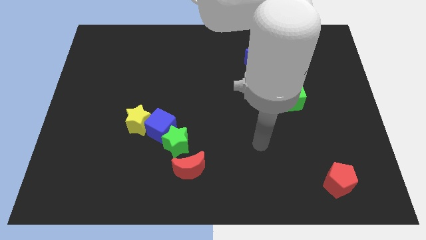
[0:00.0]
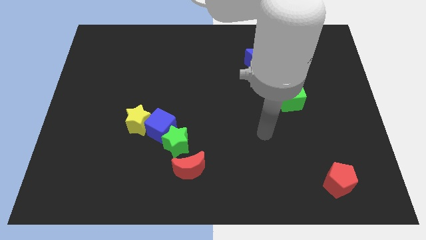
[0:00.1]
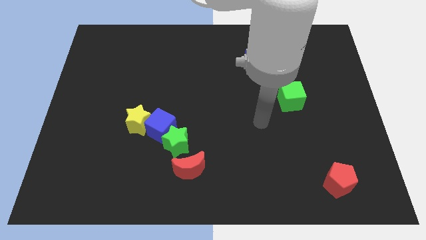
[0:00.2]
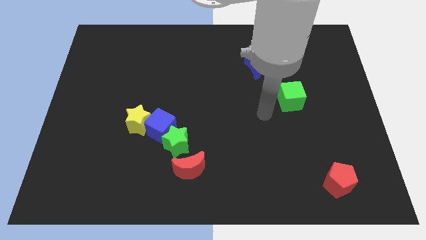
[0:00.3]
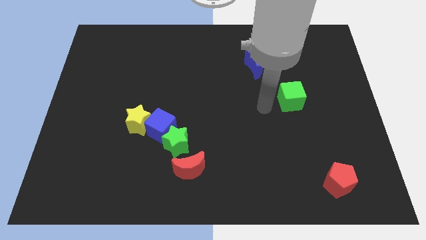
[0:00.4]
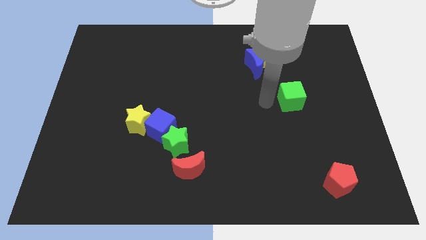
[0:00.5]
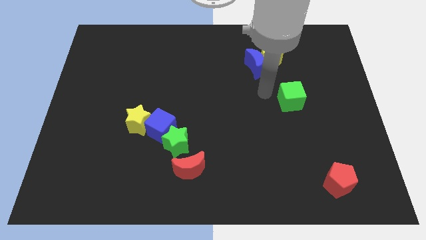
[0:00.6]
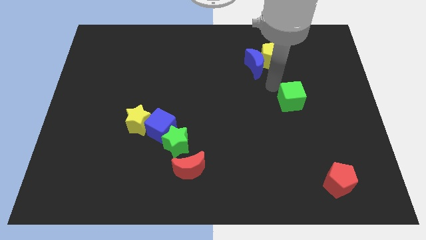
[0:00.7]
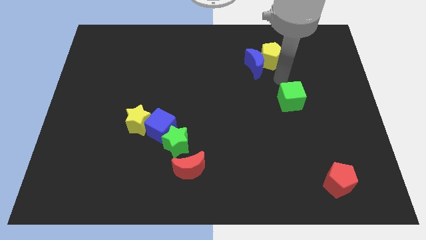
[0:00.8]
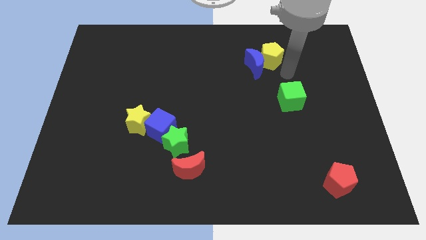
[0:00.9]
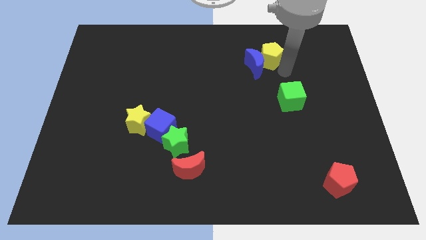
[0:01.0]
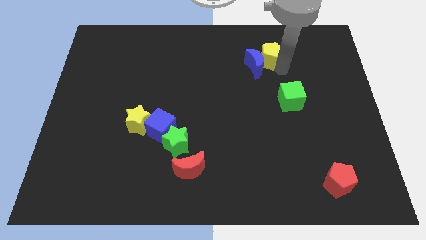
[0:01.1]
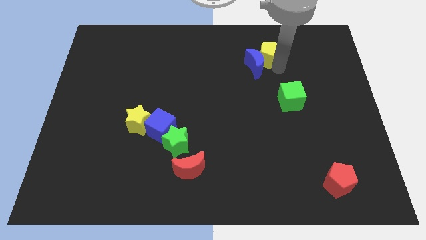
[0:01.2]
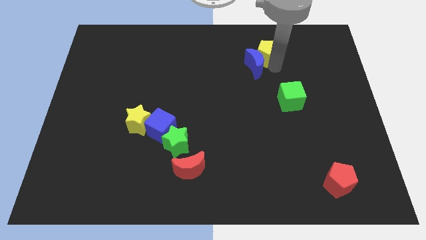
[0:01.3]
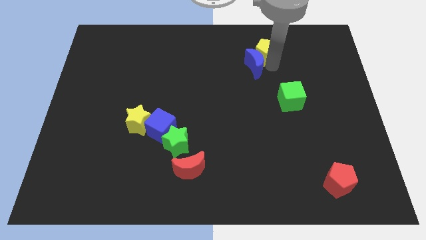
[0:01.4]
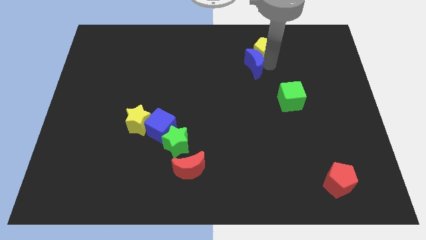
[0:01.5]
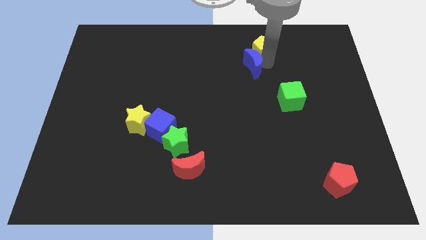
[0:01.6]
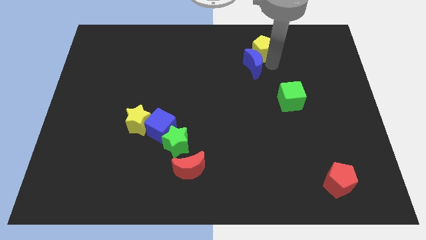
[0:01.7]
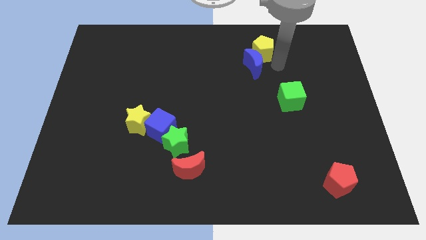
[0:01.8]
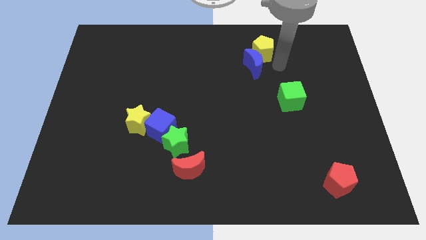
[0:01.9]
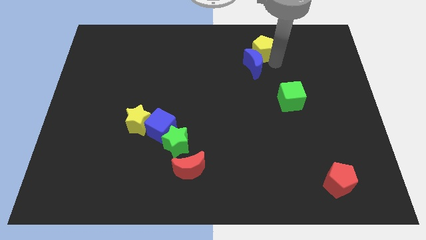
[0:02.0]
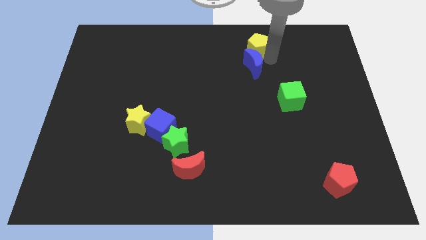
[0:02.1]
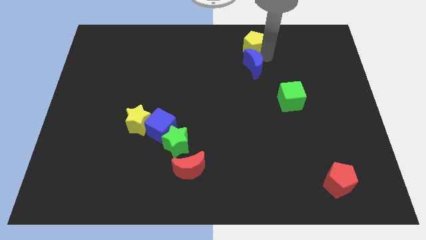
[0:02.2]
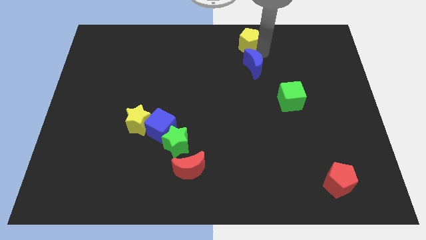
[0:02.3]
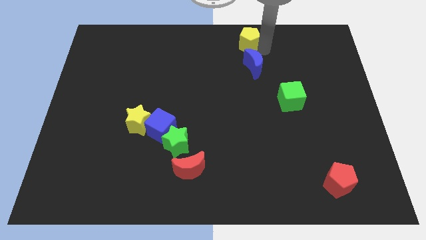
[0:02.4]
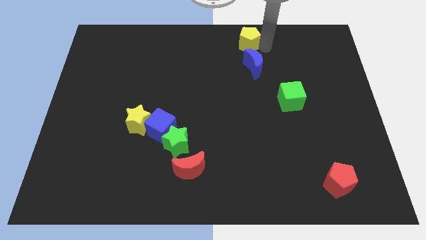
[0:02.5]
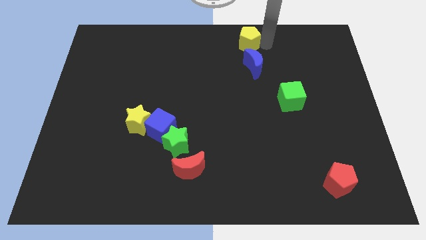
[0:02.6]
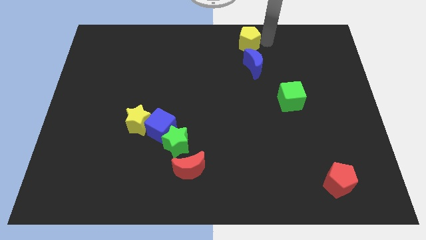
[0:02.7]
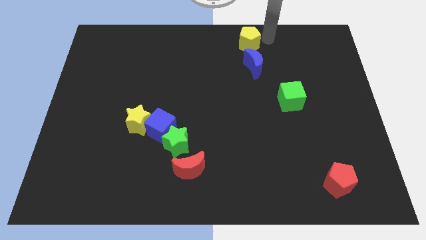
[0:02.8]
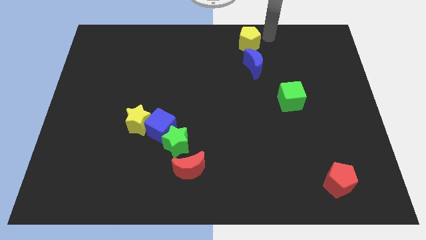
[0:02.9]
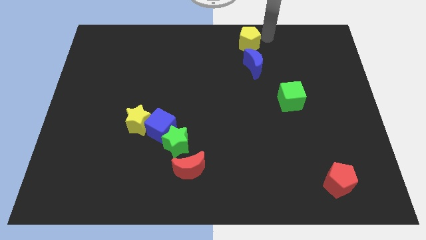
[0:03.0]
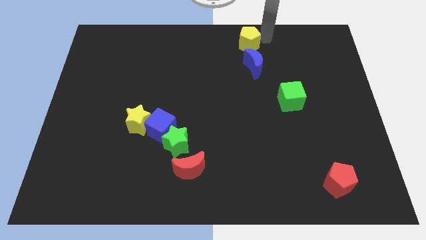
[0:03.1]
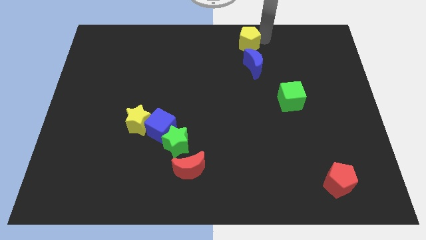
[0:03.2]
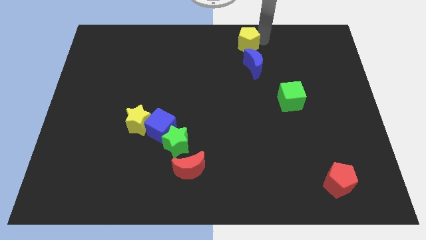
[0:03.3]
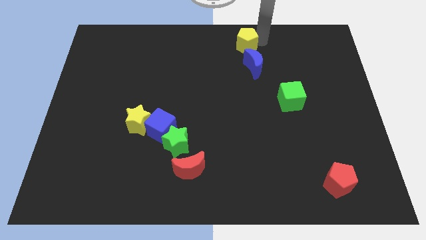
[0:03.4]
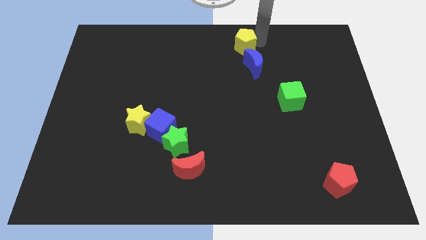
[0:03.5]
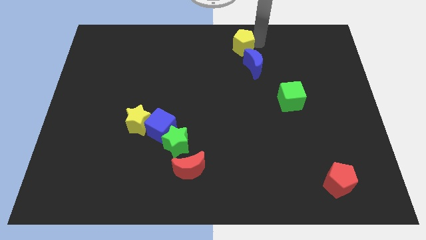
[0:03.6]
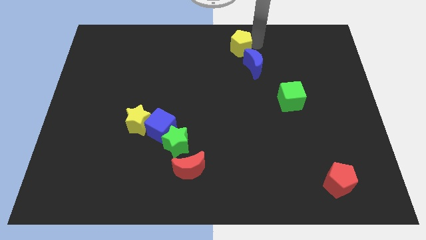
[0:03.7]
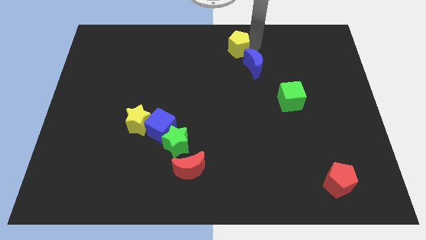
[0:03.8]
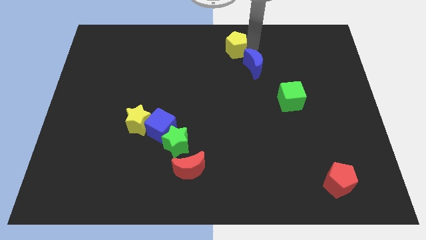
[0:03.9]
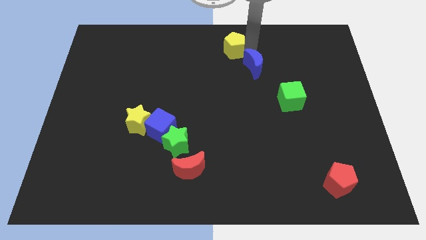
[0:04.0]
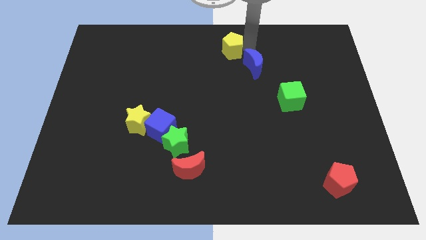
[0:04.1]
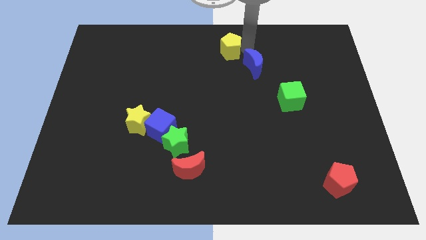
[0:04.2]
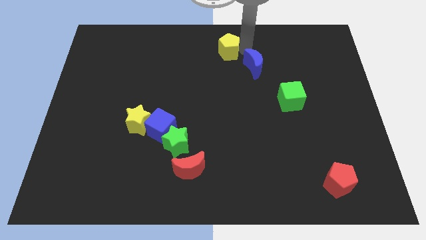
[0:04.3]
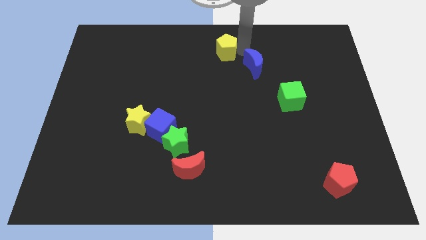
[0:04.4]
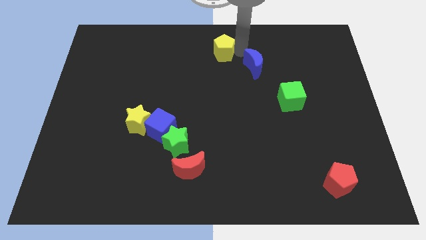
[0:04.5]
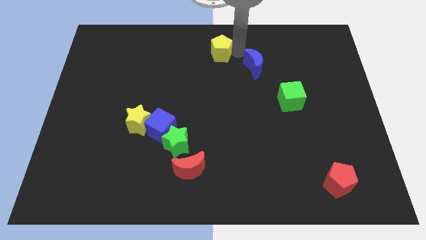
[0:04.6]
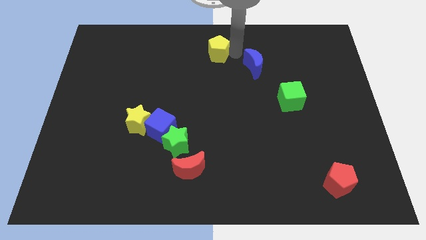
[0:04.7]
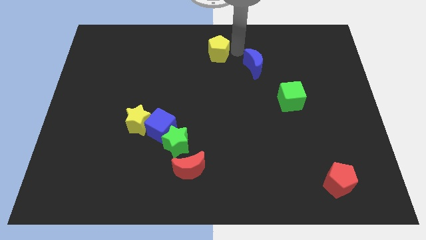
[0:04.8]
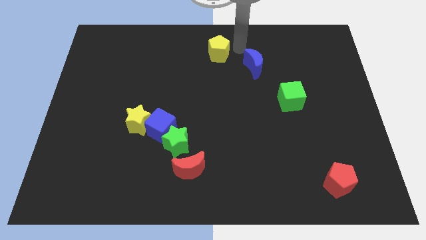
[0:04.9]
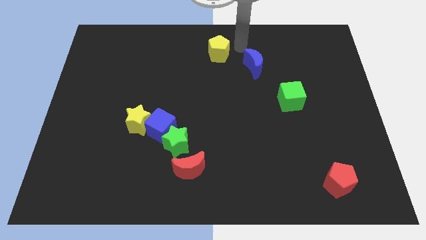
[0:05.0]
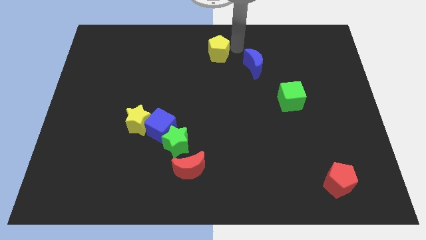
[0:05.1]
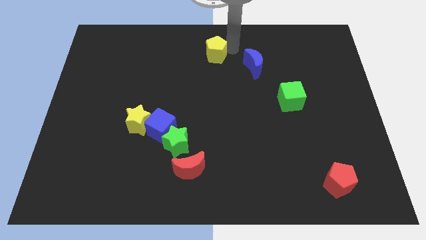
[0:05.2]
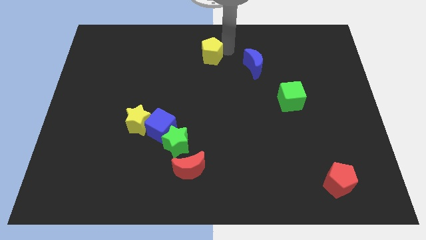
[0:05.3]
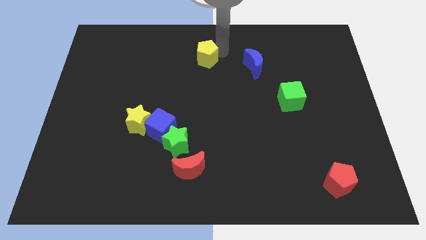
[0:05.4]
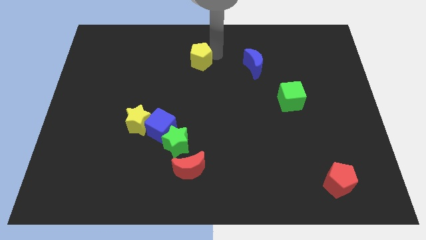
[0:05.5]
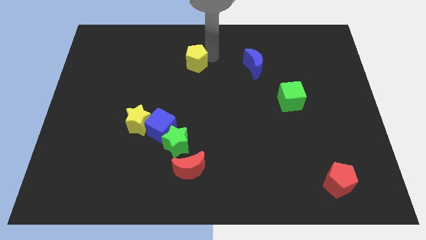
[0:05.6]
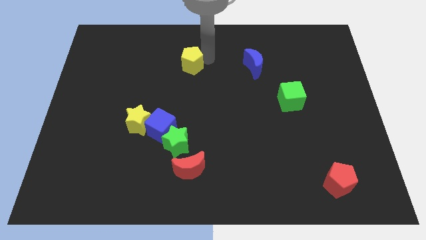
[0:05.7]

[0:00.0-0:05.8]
push the yellow pentagon to the left

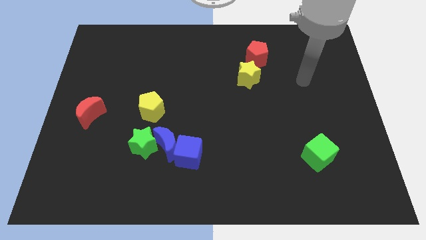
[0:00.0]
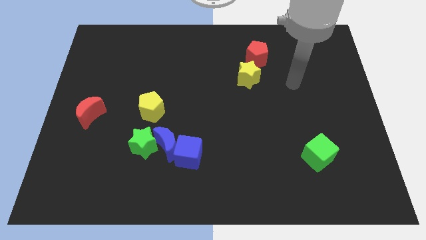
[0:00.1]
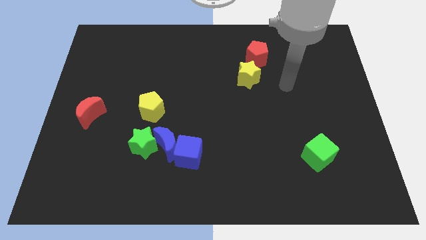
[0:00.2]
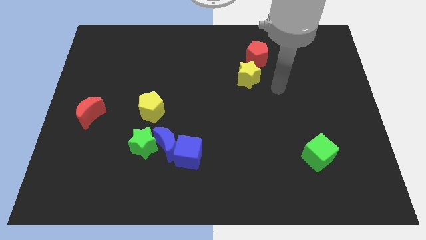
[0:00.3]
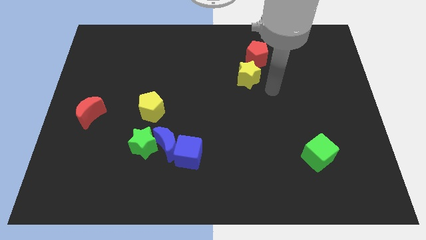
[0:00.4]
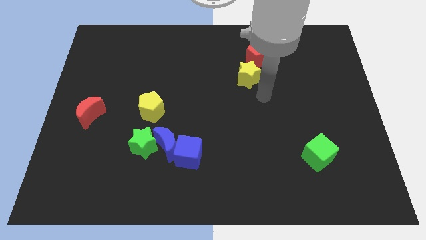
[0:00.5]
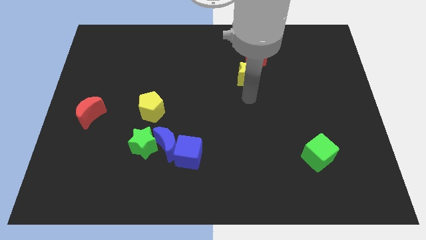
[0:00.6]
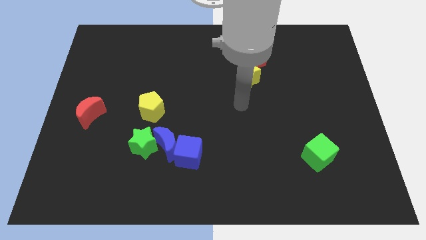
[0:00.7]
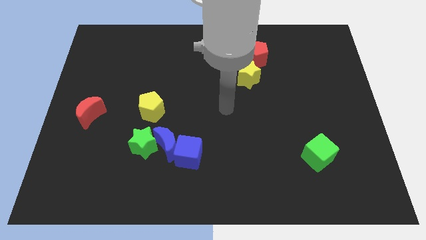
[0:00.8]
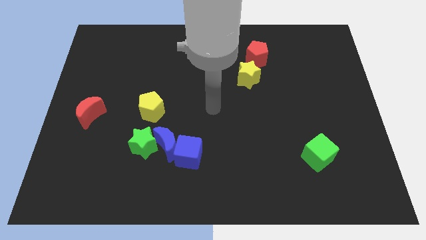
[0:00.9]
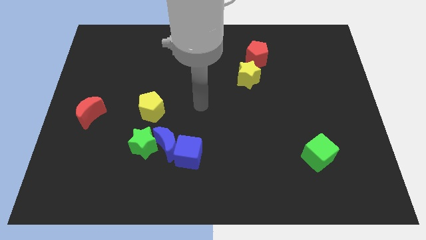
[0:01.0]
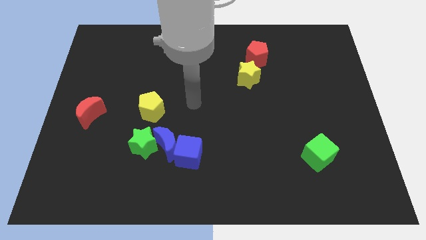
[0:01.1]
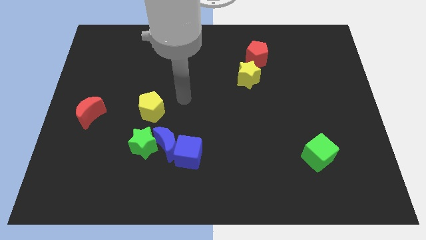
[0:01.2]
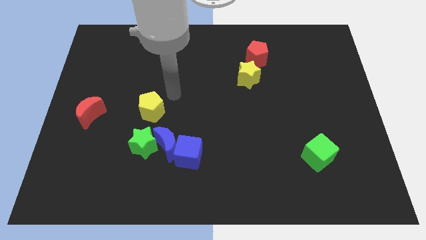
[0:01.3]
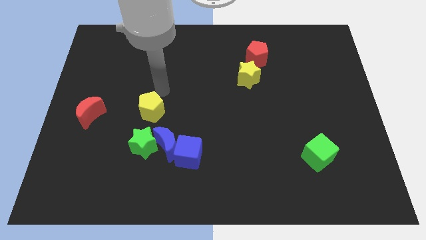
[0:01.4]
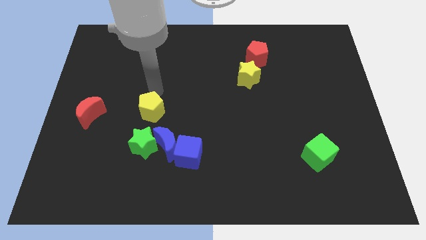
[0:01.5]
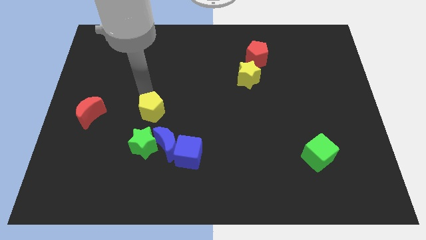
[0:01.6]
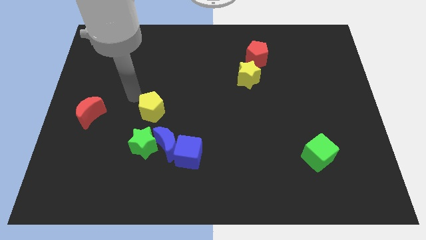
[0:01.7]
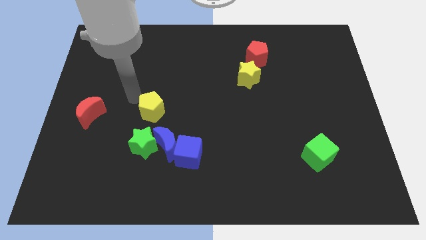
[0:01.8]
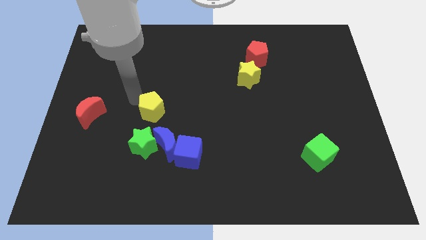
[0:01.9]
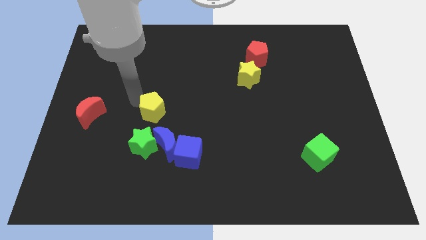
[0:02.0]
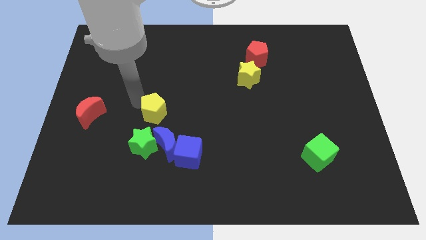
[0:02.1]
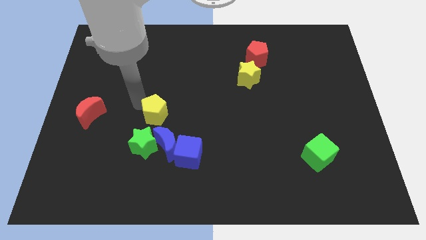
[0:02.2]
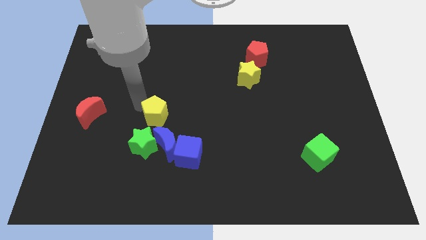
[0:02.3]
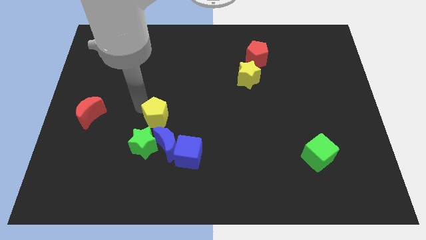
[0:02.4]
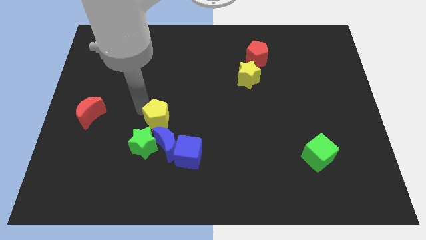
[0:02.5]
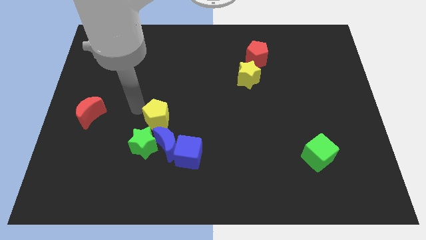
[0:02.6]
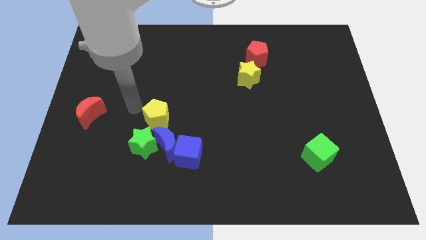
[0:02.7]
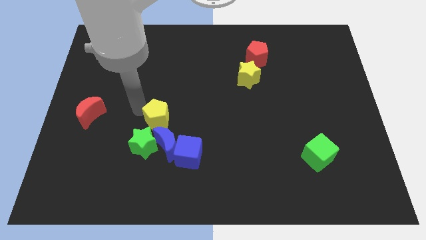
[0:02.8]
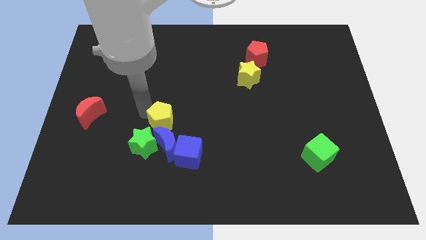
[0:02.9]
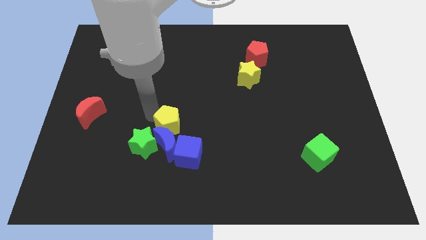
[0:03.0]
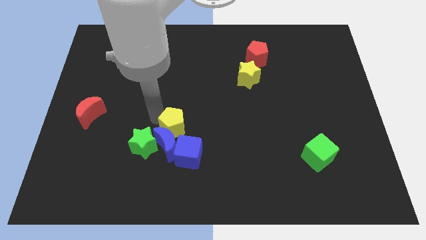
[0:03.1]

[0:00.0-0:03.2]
move the yellow pentagon somewhat downwards and to the right diagonally
